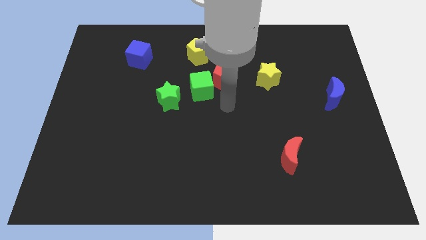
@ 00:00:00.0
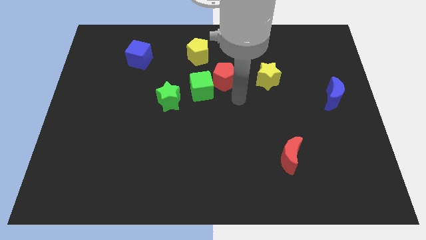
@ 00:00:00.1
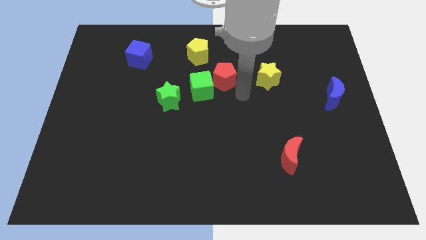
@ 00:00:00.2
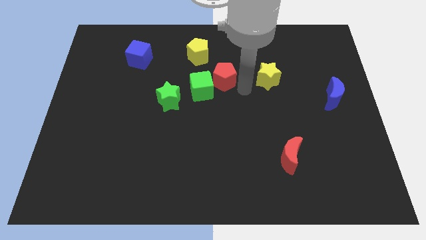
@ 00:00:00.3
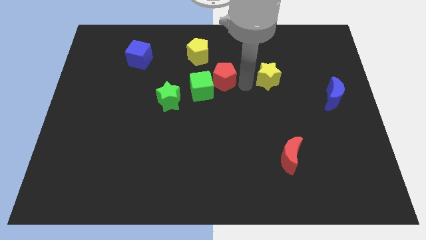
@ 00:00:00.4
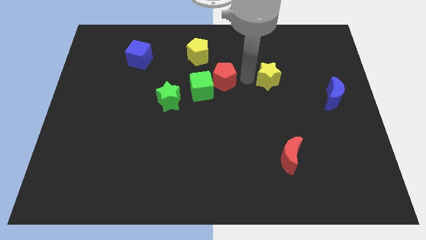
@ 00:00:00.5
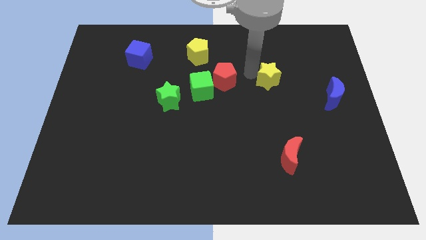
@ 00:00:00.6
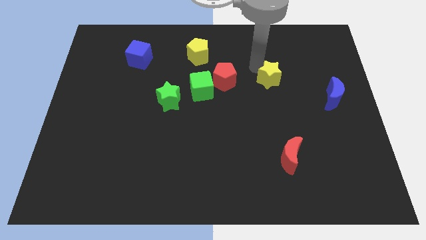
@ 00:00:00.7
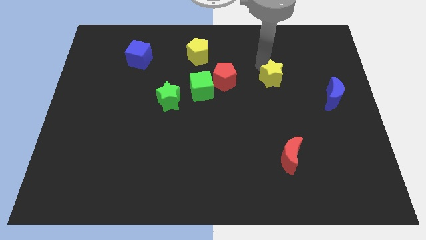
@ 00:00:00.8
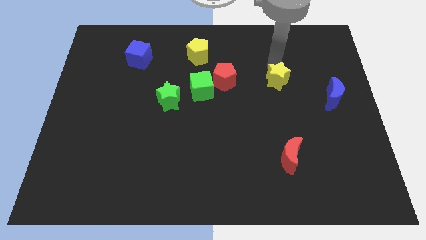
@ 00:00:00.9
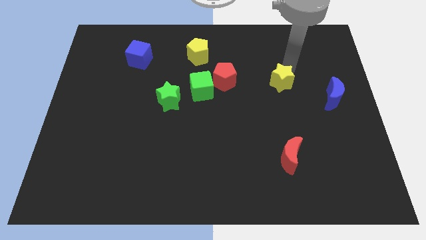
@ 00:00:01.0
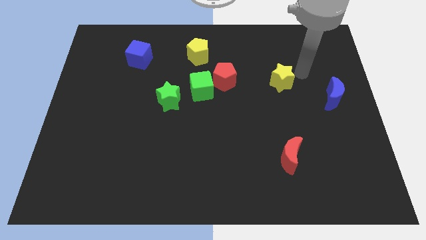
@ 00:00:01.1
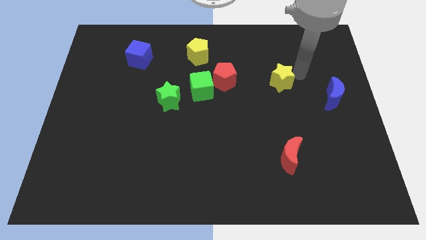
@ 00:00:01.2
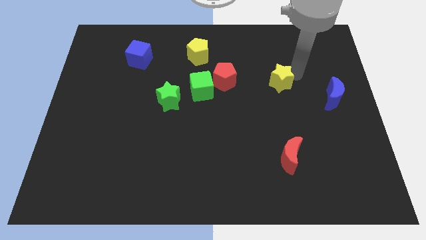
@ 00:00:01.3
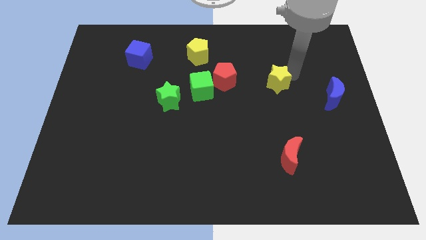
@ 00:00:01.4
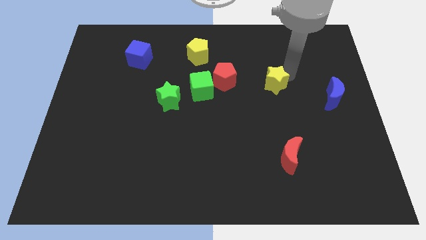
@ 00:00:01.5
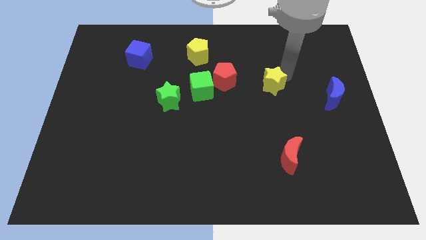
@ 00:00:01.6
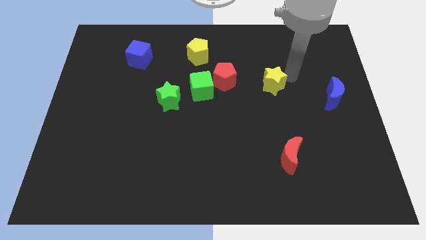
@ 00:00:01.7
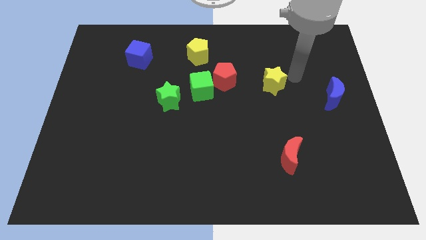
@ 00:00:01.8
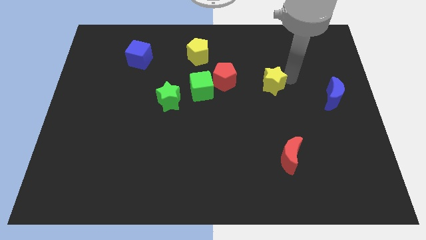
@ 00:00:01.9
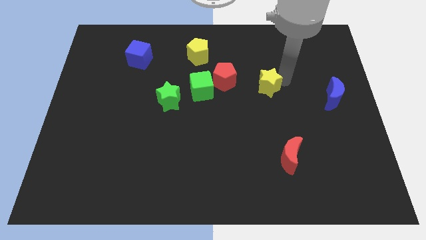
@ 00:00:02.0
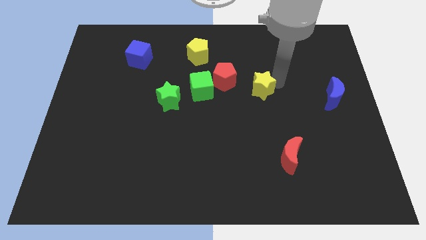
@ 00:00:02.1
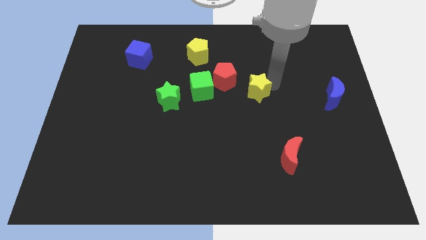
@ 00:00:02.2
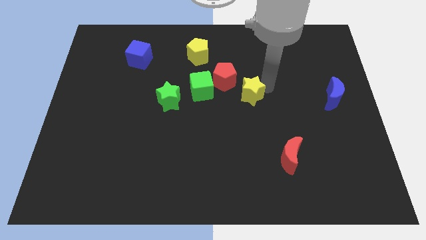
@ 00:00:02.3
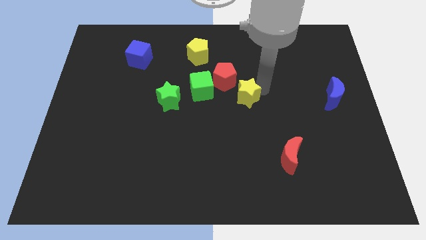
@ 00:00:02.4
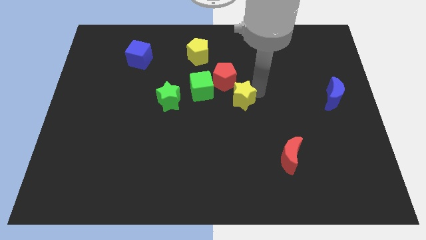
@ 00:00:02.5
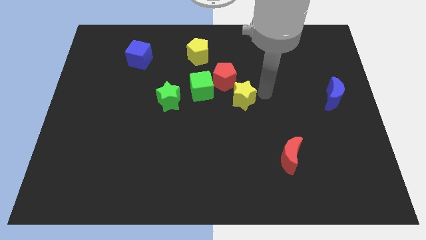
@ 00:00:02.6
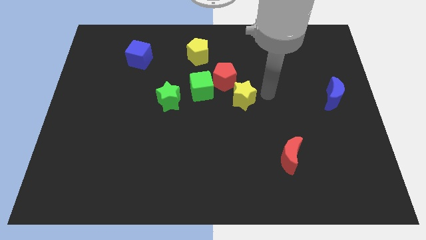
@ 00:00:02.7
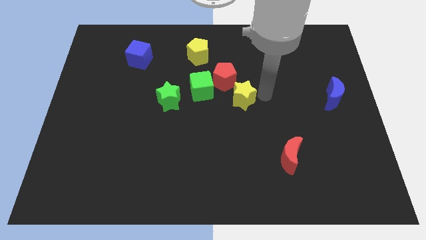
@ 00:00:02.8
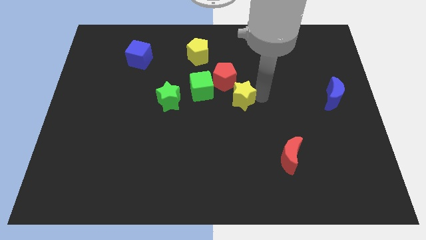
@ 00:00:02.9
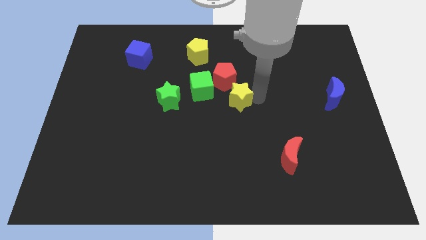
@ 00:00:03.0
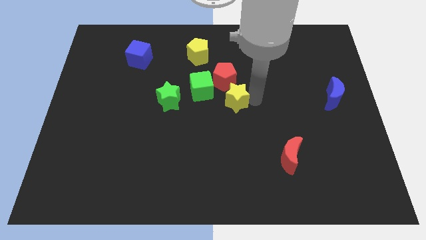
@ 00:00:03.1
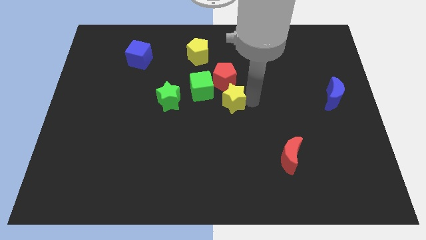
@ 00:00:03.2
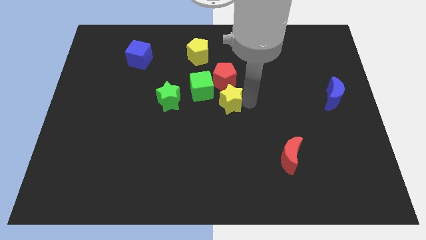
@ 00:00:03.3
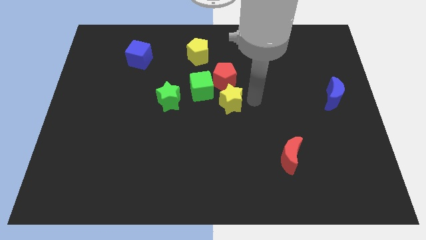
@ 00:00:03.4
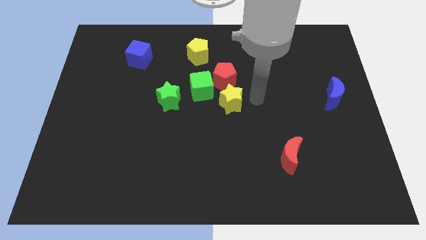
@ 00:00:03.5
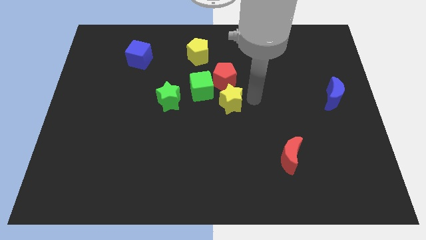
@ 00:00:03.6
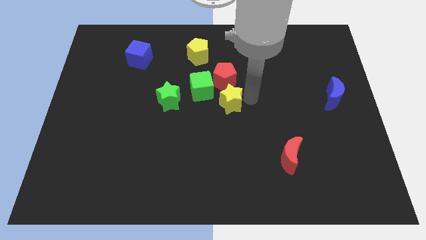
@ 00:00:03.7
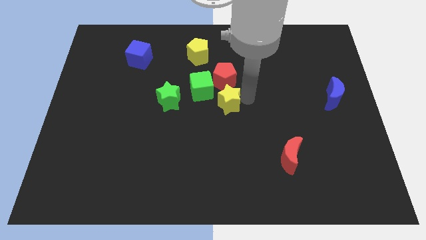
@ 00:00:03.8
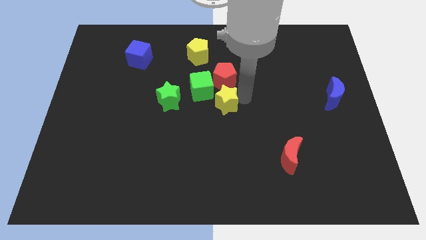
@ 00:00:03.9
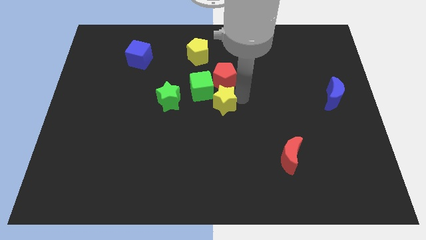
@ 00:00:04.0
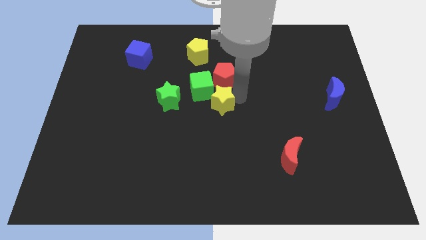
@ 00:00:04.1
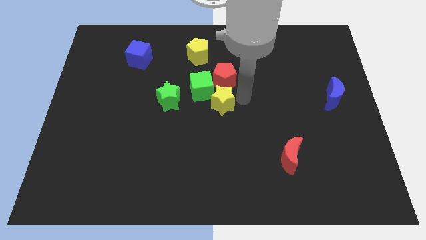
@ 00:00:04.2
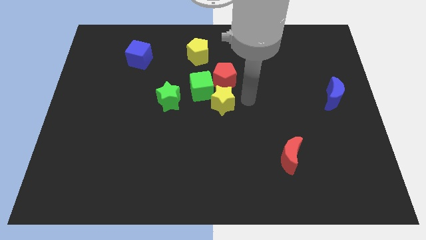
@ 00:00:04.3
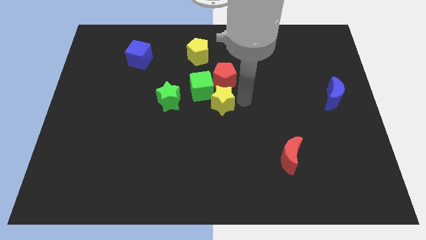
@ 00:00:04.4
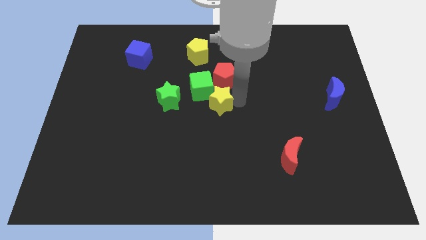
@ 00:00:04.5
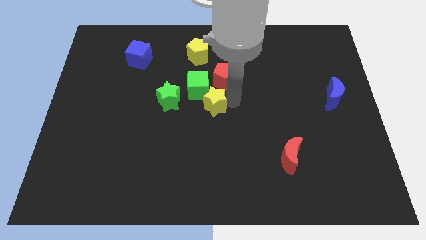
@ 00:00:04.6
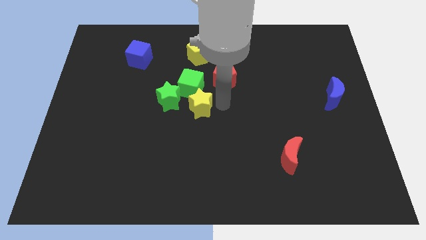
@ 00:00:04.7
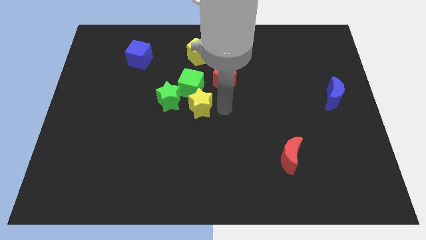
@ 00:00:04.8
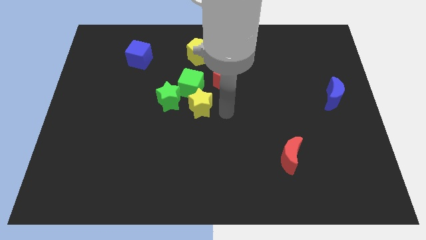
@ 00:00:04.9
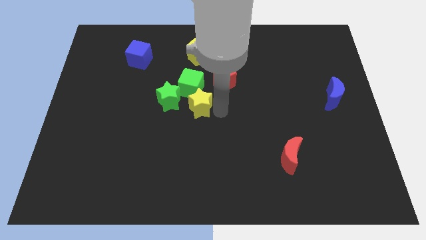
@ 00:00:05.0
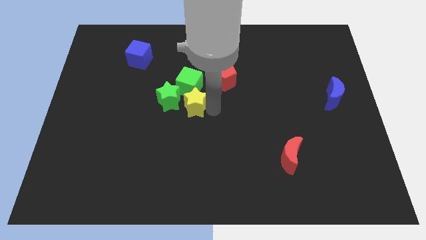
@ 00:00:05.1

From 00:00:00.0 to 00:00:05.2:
move the yellow star close to the green star
